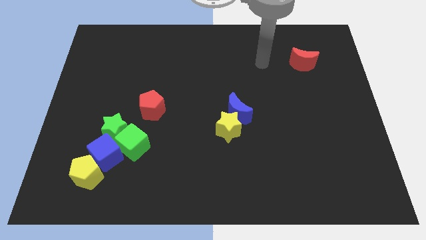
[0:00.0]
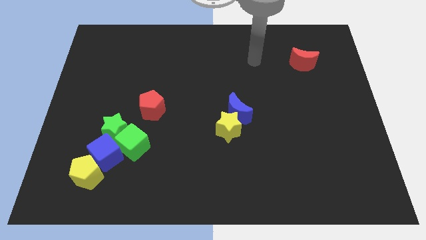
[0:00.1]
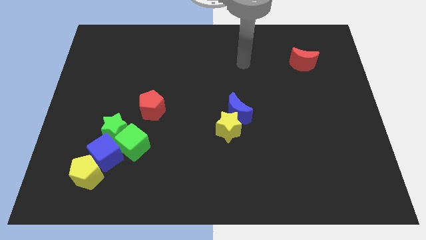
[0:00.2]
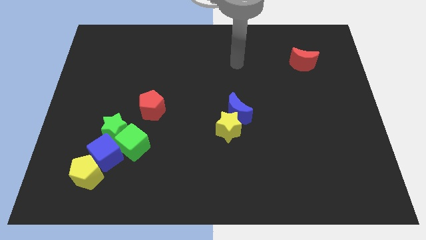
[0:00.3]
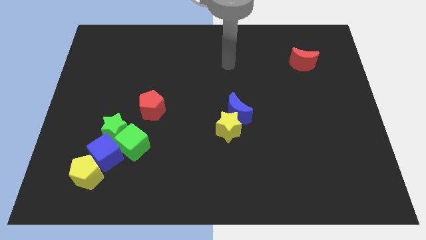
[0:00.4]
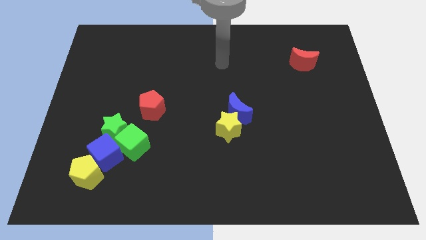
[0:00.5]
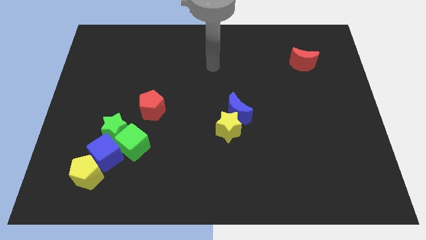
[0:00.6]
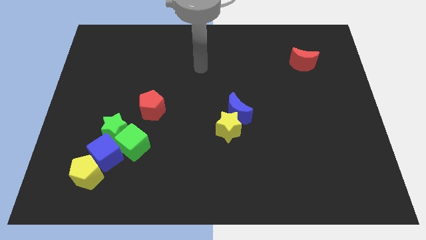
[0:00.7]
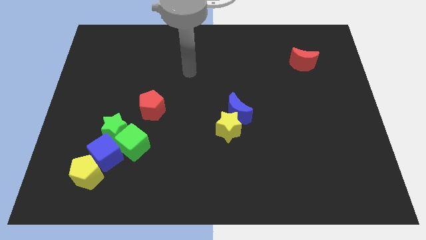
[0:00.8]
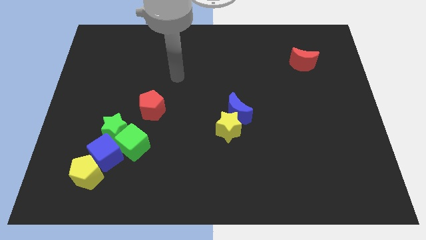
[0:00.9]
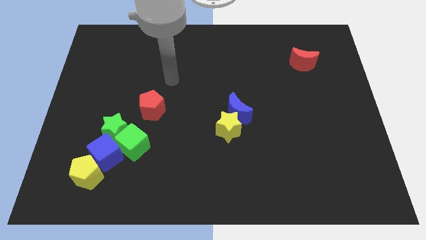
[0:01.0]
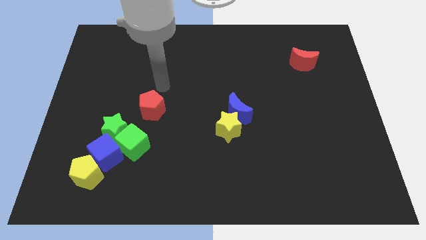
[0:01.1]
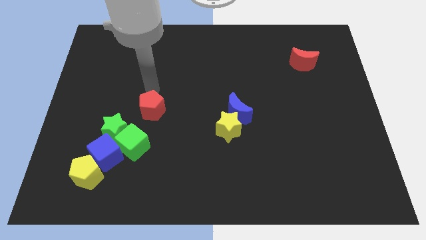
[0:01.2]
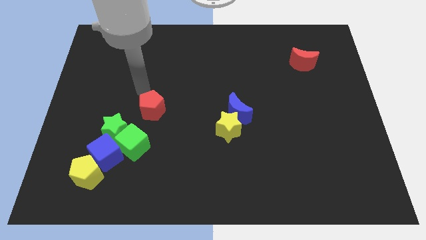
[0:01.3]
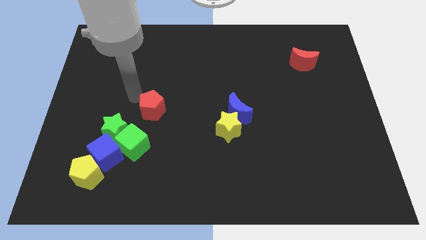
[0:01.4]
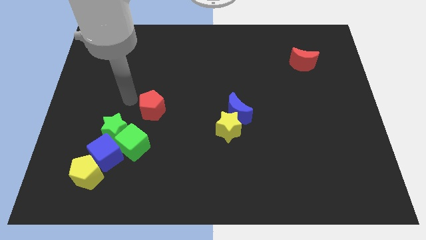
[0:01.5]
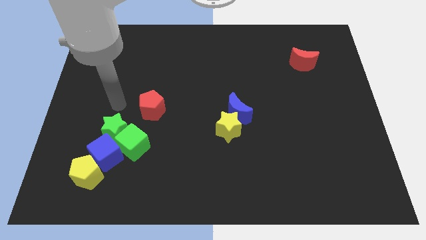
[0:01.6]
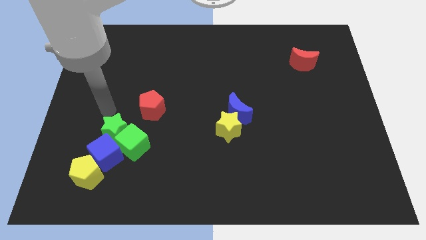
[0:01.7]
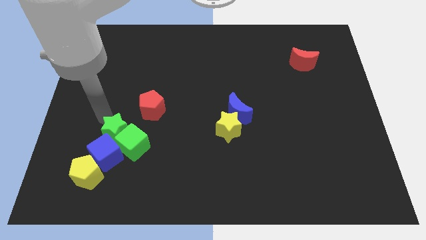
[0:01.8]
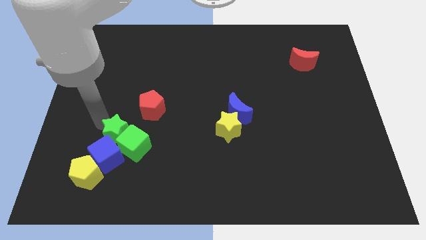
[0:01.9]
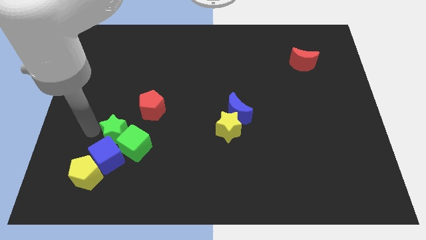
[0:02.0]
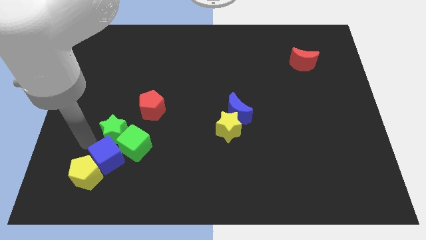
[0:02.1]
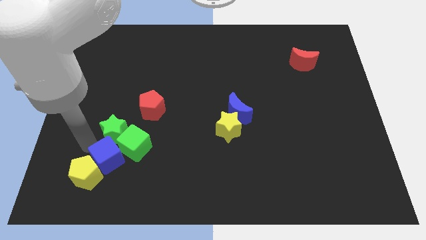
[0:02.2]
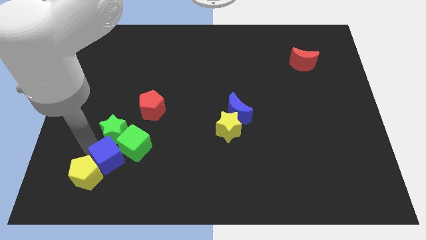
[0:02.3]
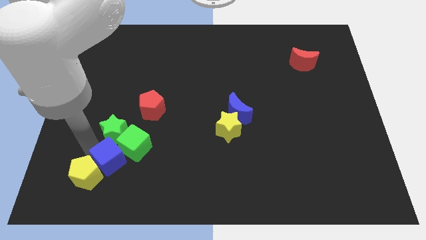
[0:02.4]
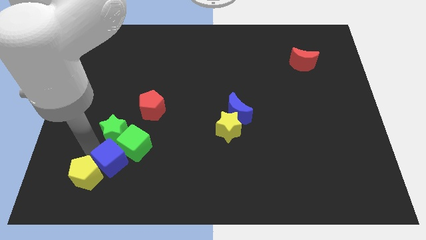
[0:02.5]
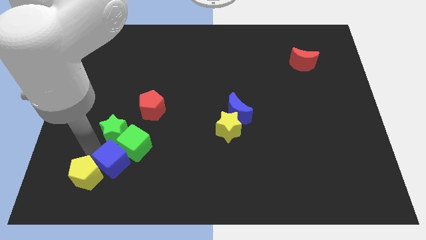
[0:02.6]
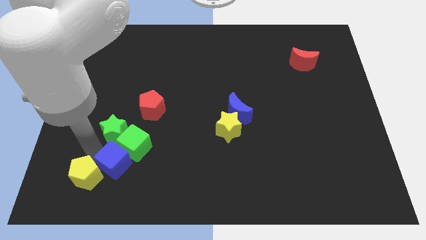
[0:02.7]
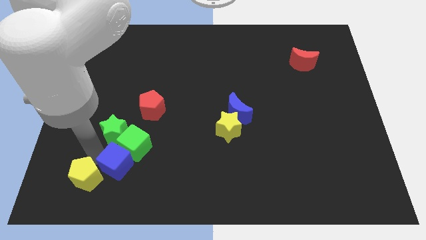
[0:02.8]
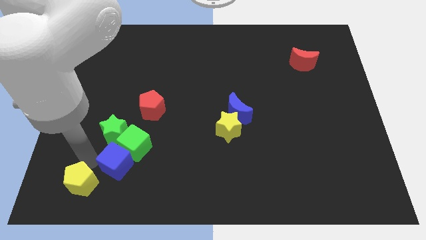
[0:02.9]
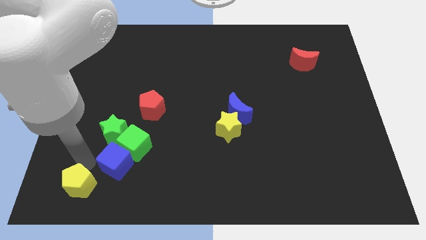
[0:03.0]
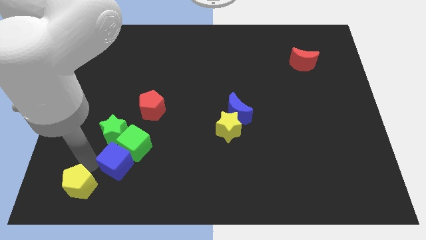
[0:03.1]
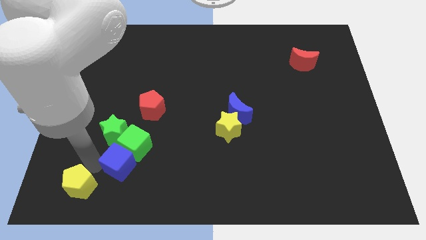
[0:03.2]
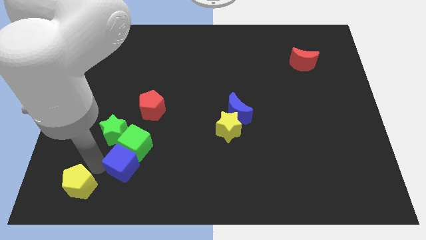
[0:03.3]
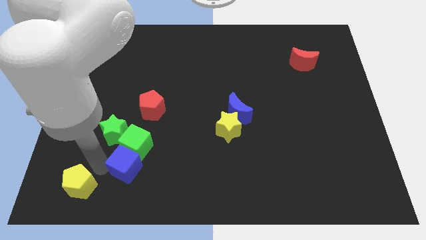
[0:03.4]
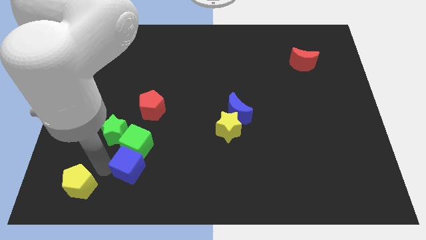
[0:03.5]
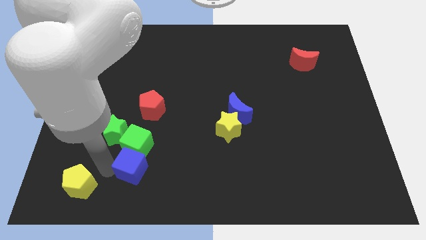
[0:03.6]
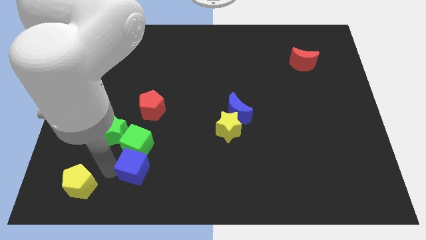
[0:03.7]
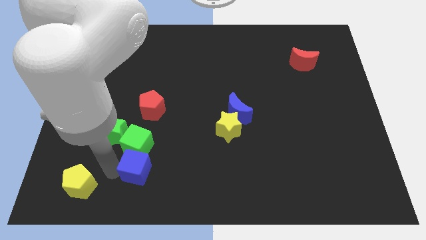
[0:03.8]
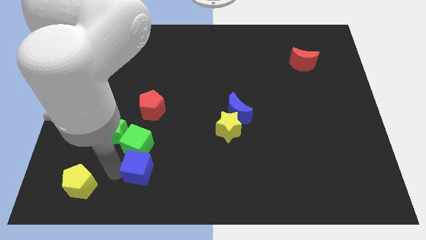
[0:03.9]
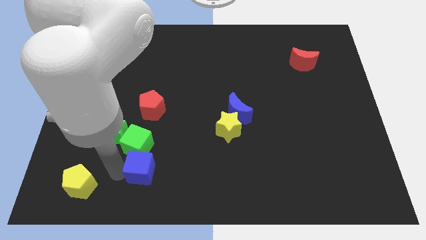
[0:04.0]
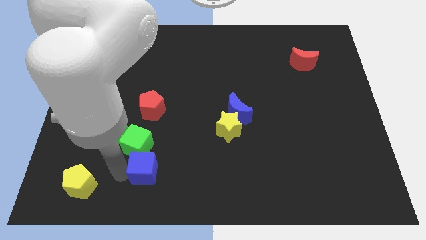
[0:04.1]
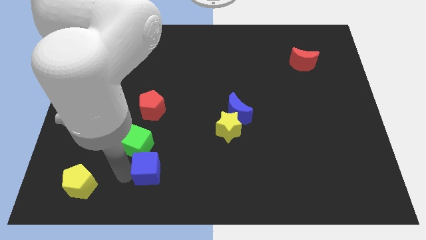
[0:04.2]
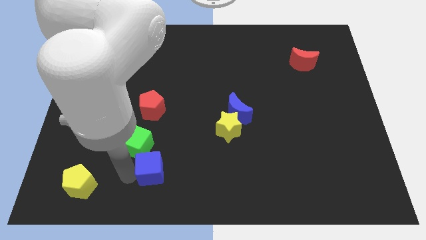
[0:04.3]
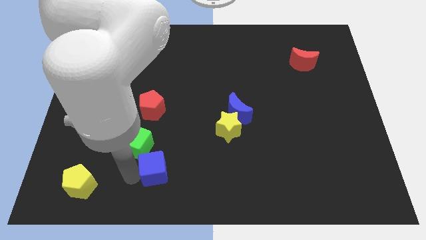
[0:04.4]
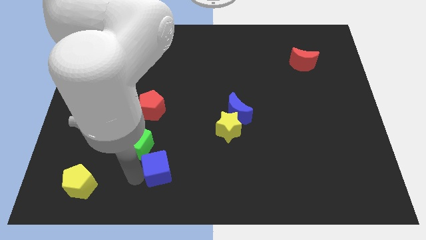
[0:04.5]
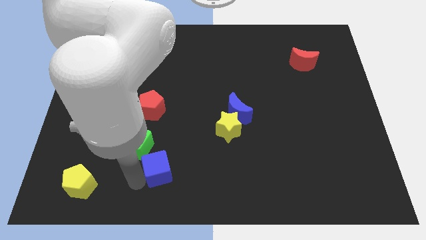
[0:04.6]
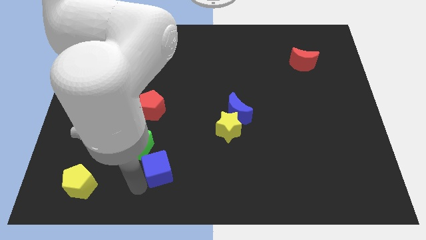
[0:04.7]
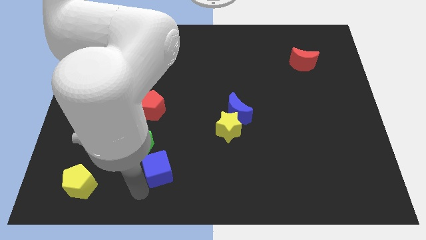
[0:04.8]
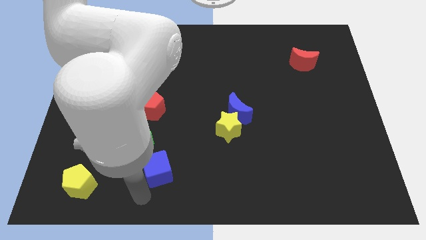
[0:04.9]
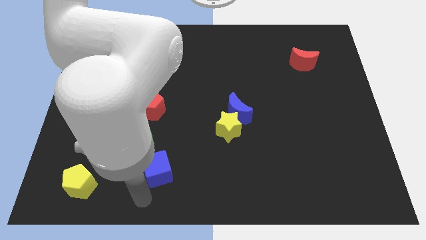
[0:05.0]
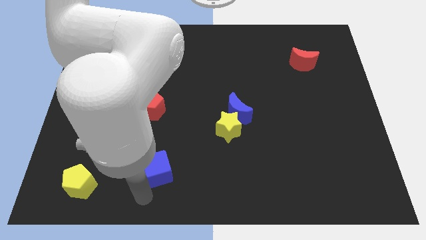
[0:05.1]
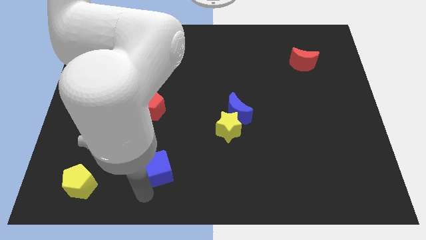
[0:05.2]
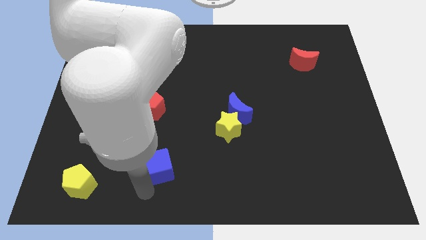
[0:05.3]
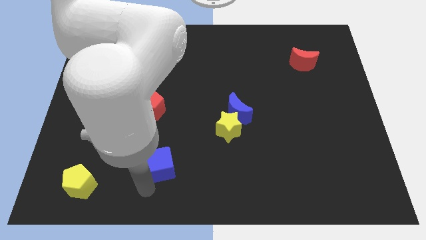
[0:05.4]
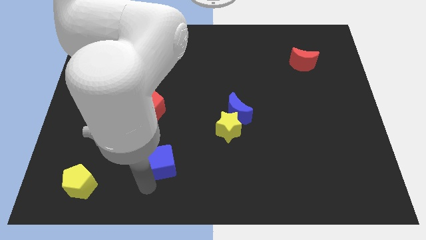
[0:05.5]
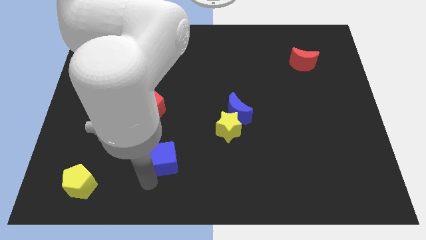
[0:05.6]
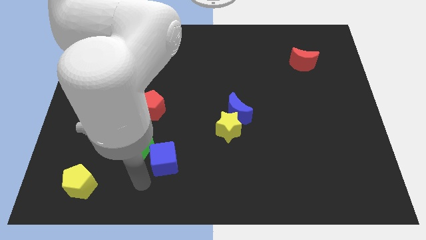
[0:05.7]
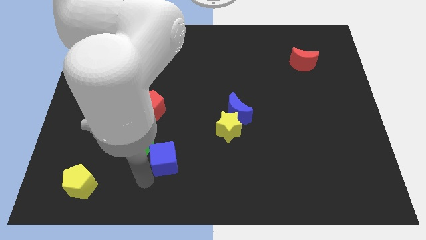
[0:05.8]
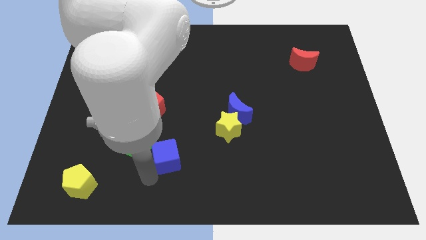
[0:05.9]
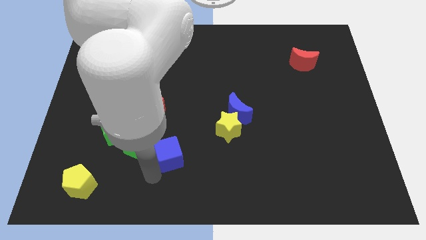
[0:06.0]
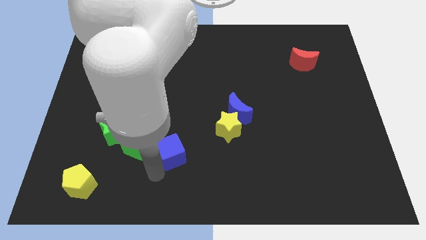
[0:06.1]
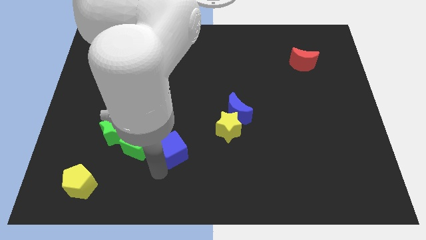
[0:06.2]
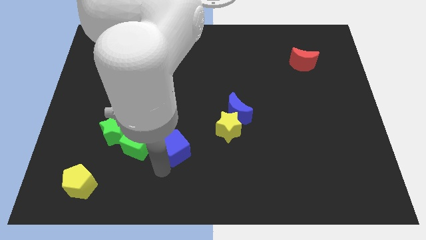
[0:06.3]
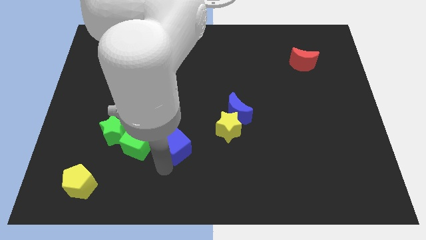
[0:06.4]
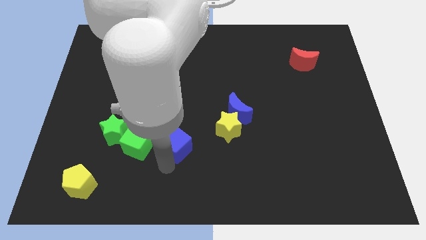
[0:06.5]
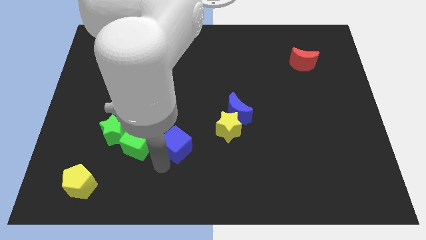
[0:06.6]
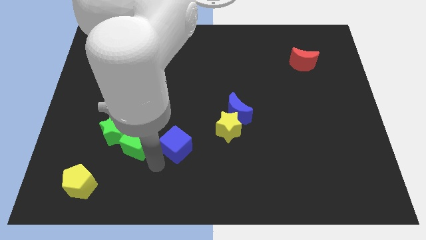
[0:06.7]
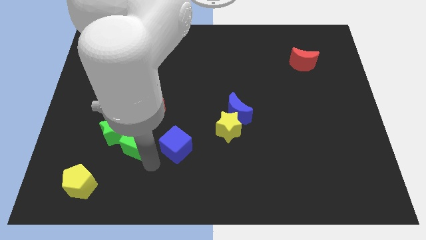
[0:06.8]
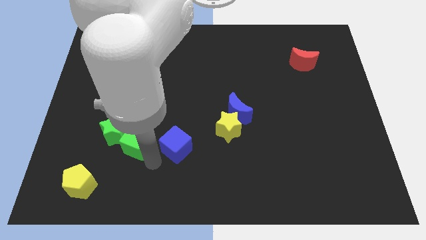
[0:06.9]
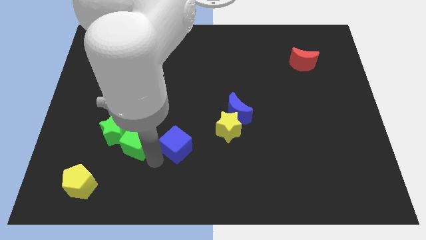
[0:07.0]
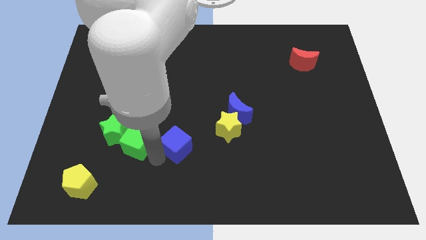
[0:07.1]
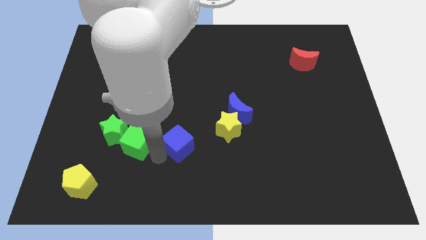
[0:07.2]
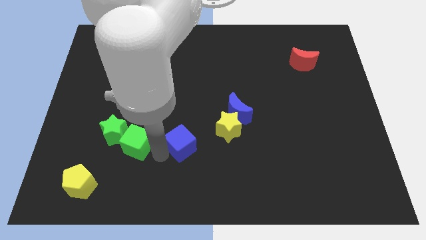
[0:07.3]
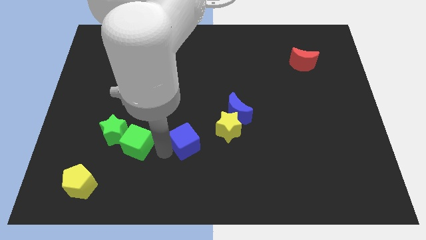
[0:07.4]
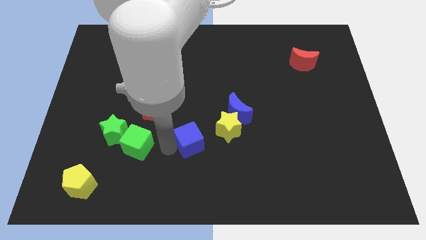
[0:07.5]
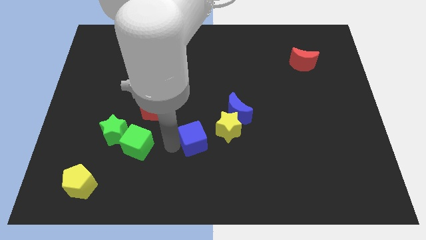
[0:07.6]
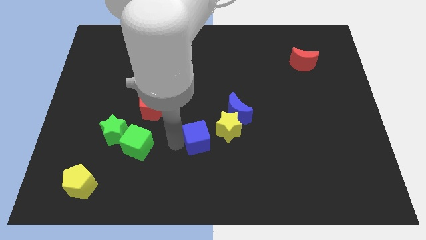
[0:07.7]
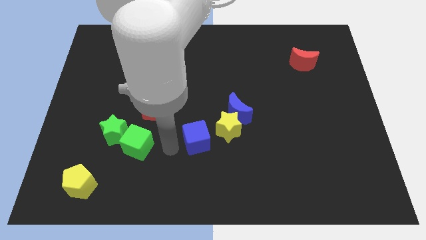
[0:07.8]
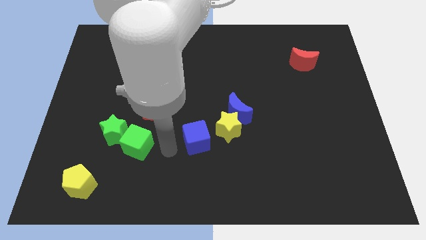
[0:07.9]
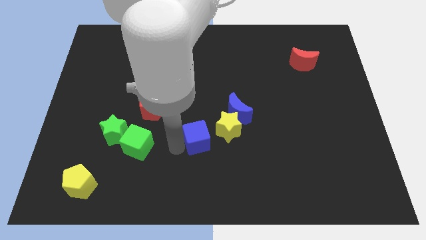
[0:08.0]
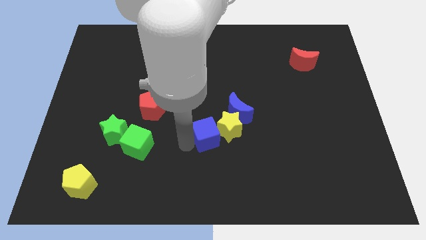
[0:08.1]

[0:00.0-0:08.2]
slide the blue cube to the yellow star
